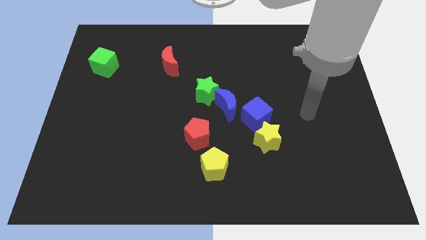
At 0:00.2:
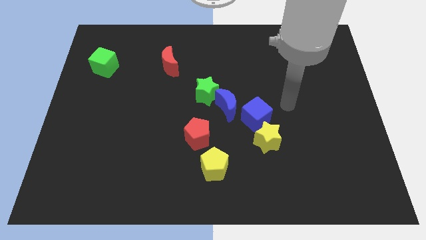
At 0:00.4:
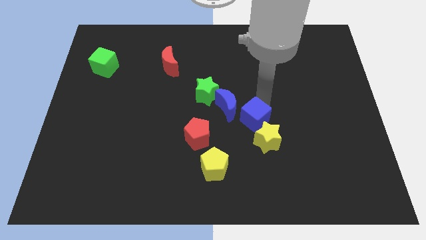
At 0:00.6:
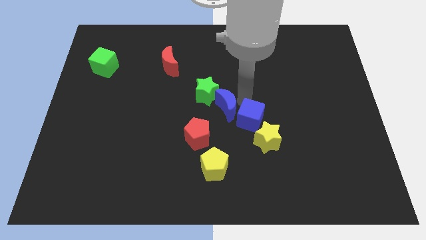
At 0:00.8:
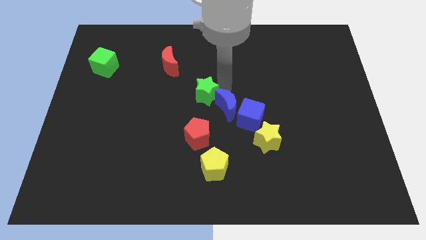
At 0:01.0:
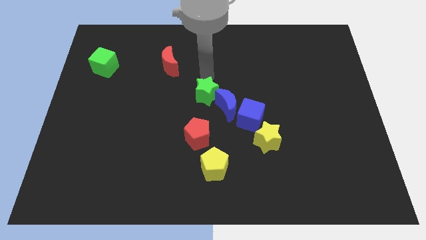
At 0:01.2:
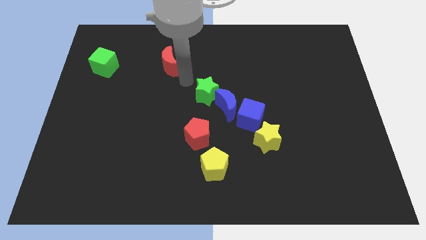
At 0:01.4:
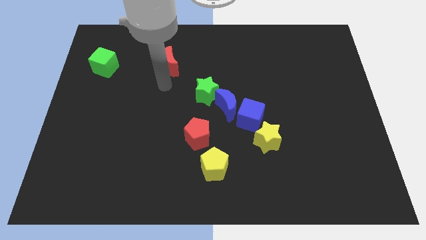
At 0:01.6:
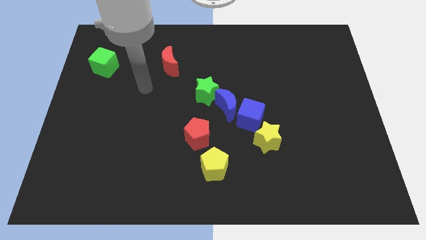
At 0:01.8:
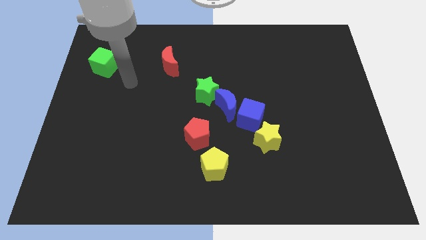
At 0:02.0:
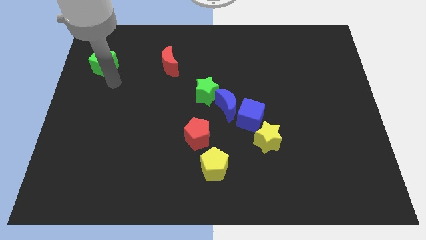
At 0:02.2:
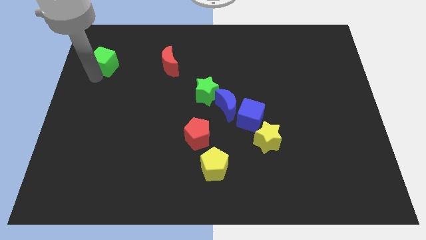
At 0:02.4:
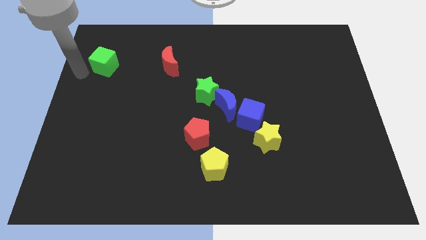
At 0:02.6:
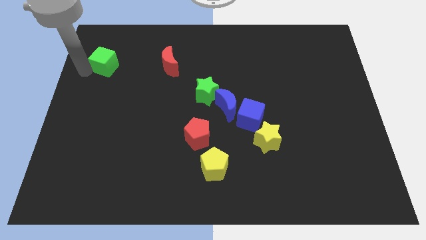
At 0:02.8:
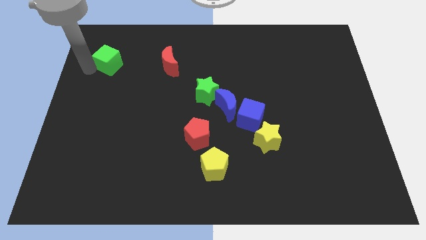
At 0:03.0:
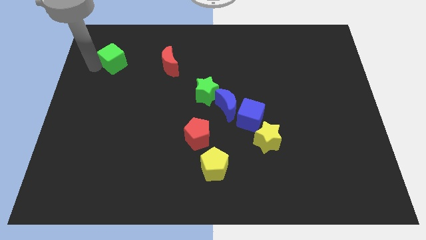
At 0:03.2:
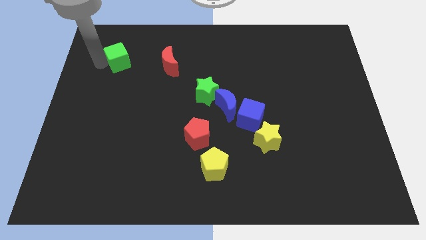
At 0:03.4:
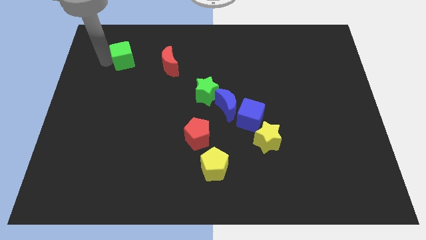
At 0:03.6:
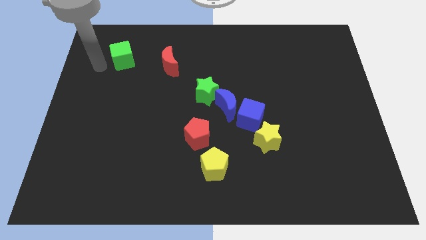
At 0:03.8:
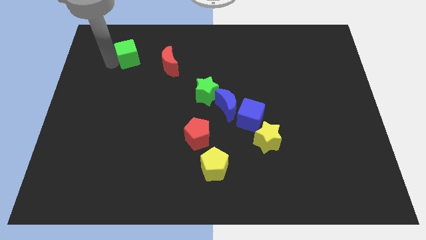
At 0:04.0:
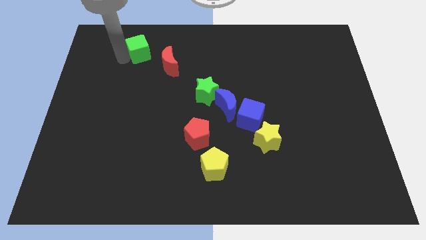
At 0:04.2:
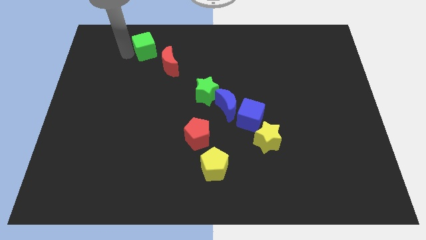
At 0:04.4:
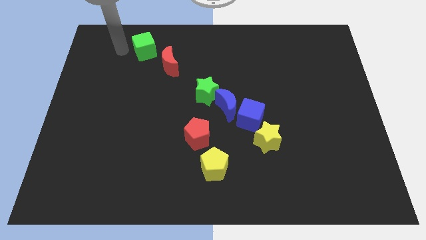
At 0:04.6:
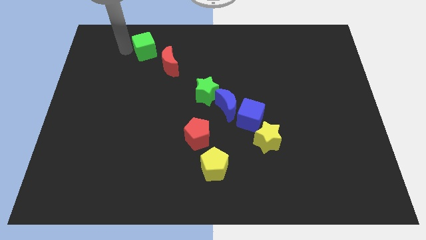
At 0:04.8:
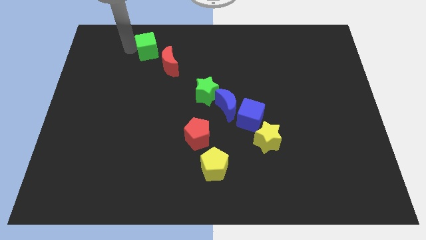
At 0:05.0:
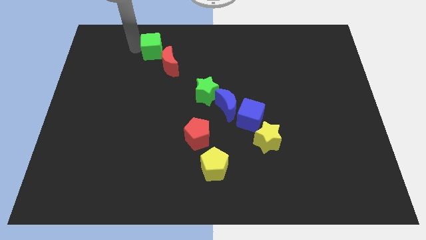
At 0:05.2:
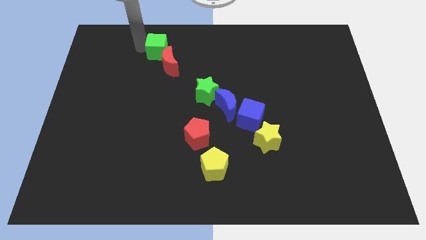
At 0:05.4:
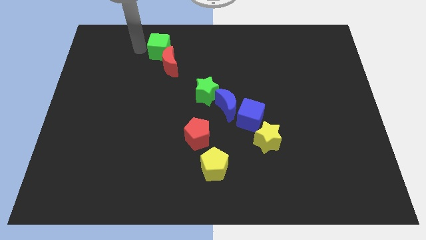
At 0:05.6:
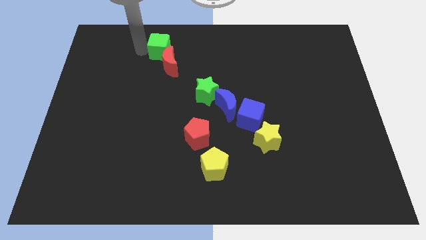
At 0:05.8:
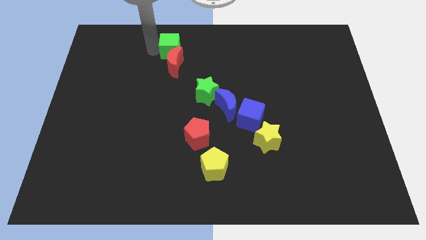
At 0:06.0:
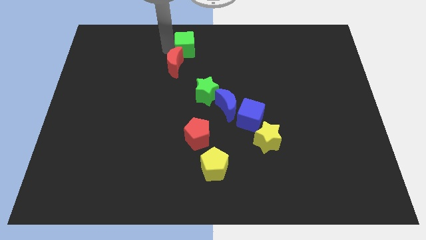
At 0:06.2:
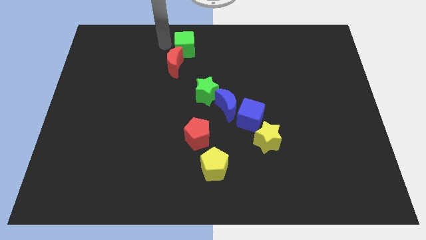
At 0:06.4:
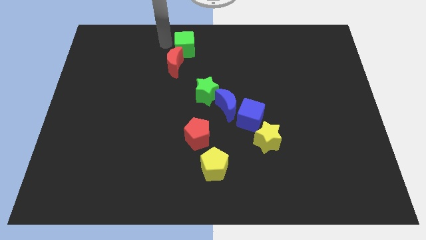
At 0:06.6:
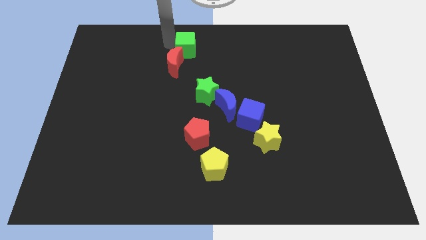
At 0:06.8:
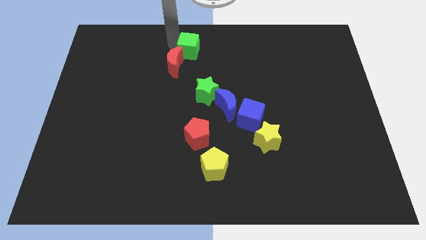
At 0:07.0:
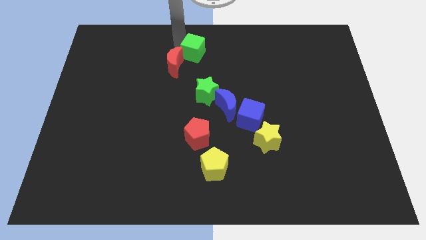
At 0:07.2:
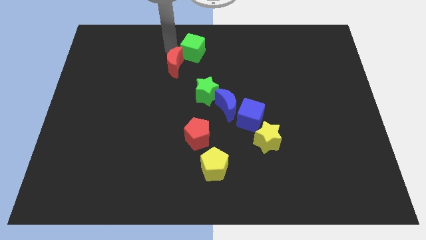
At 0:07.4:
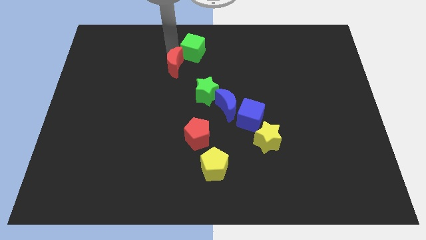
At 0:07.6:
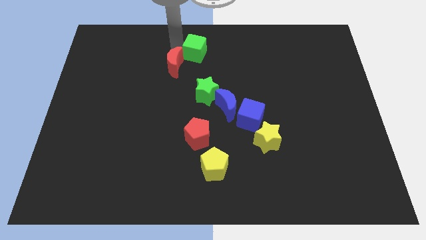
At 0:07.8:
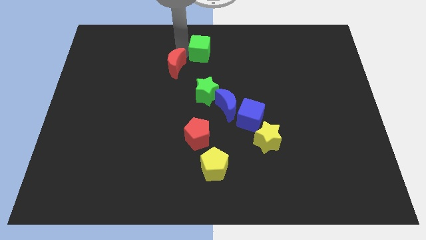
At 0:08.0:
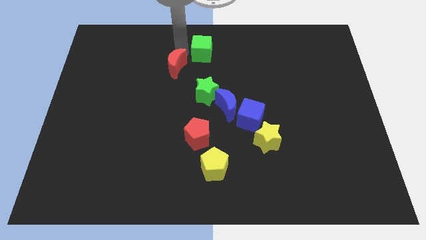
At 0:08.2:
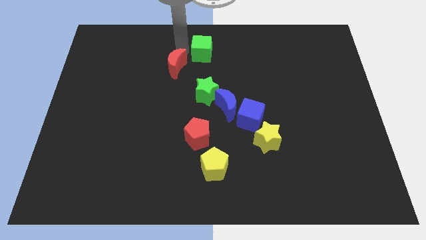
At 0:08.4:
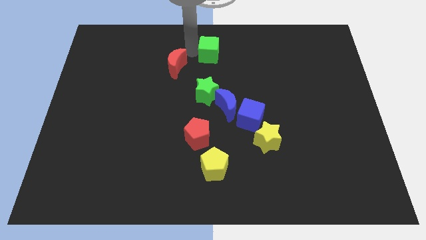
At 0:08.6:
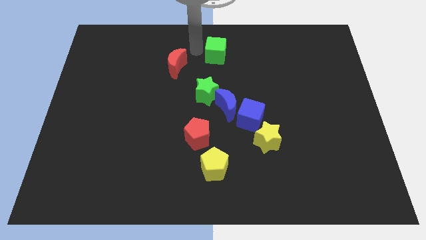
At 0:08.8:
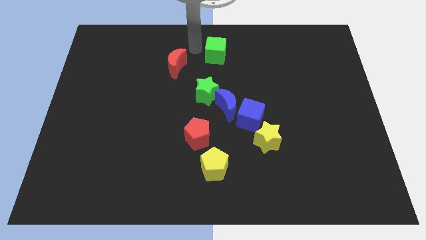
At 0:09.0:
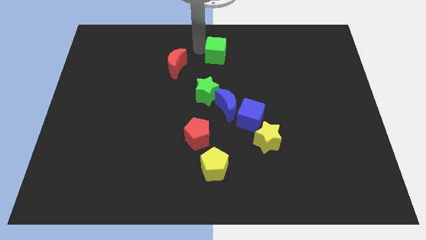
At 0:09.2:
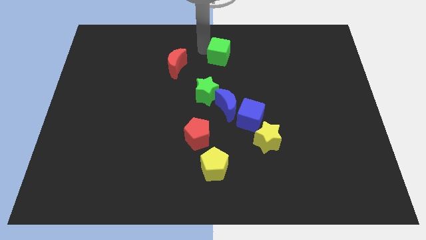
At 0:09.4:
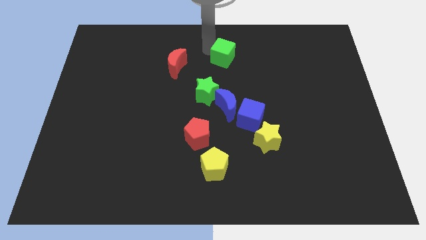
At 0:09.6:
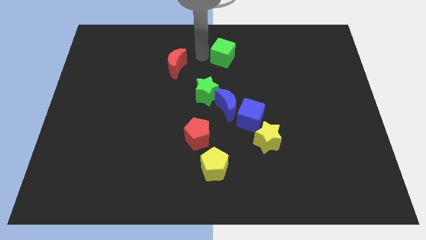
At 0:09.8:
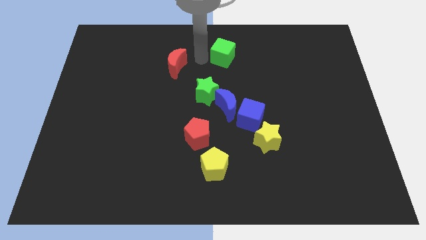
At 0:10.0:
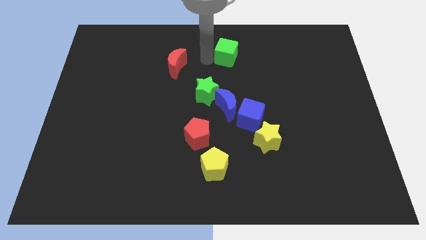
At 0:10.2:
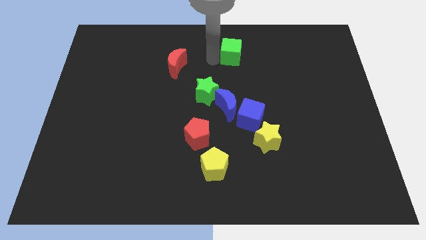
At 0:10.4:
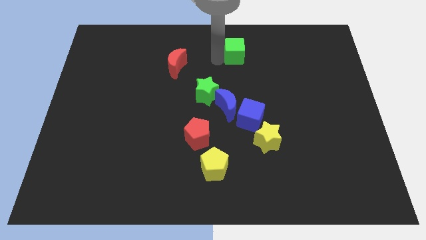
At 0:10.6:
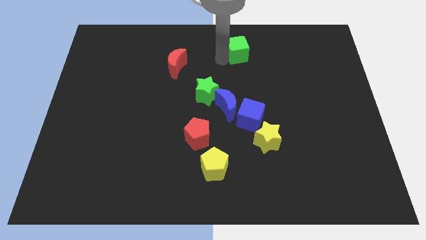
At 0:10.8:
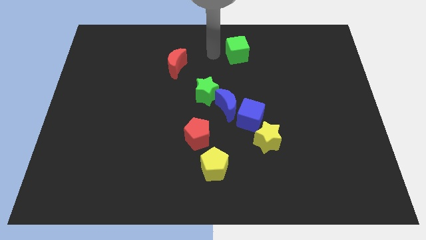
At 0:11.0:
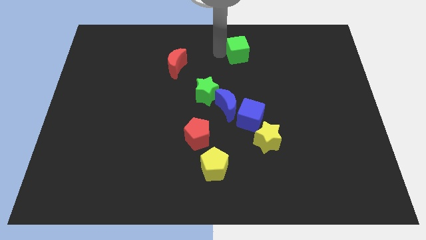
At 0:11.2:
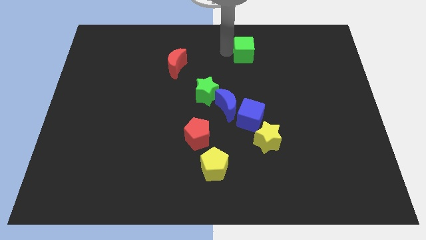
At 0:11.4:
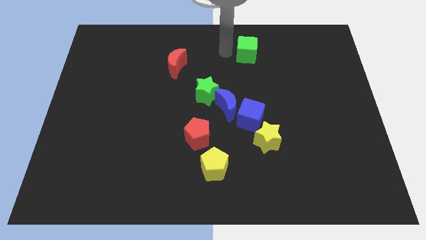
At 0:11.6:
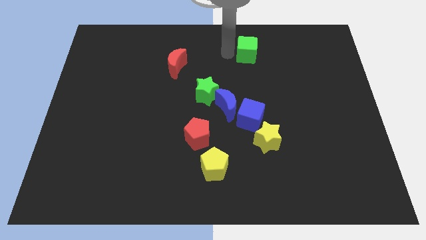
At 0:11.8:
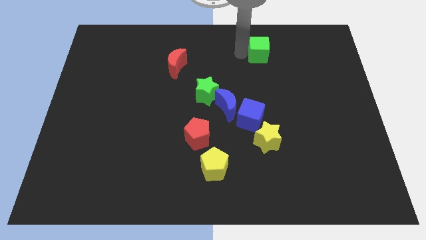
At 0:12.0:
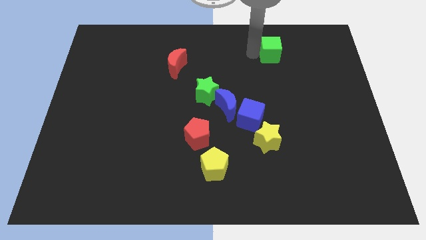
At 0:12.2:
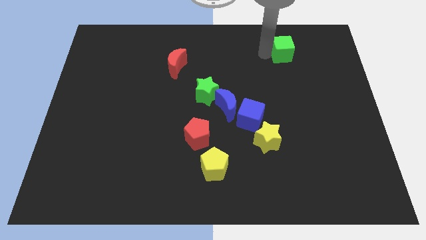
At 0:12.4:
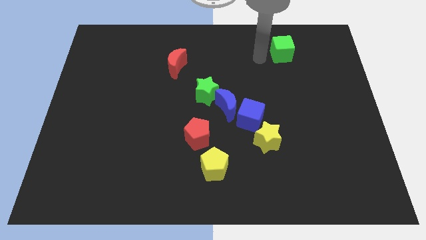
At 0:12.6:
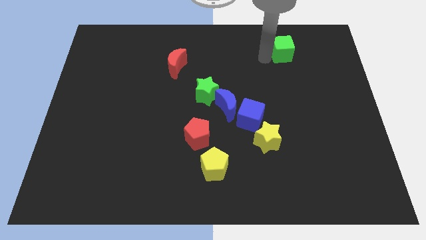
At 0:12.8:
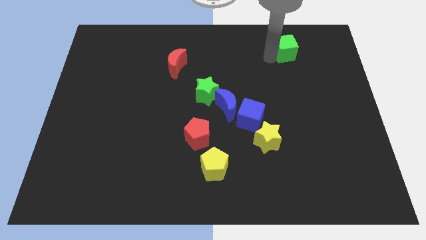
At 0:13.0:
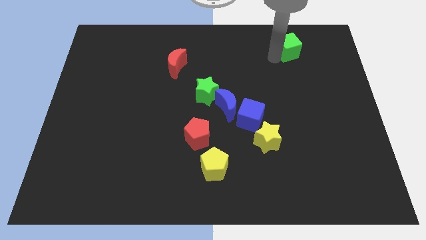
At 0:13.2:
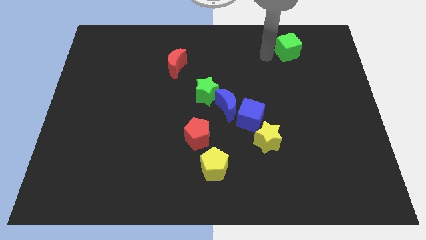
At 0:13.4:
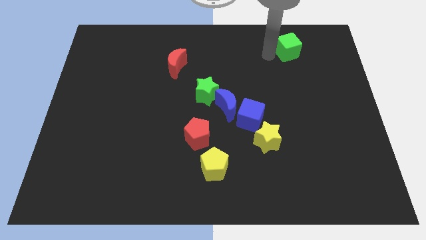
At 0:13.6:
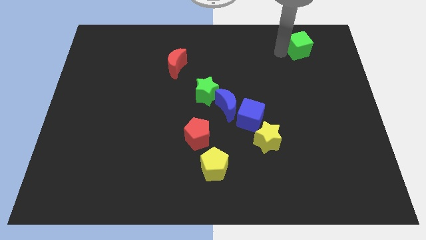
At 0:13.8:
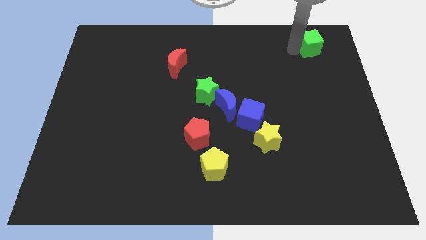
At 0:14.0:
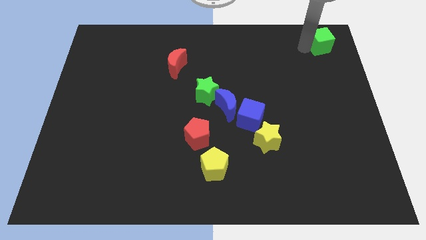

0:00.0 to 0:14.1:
put the green cube to the top right corner
